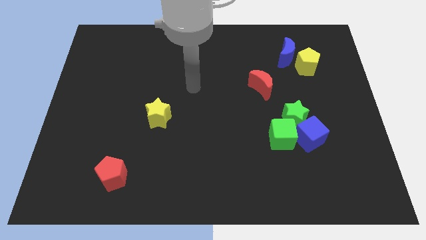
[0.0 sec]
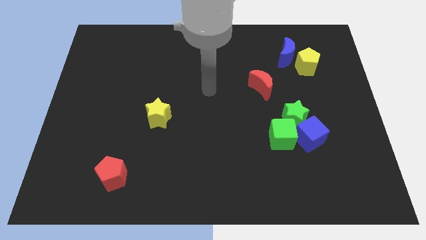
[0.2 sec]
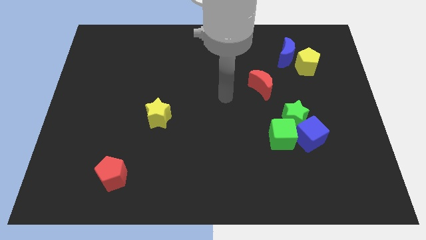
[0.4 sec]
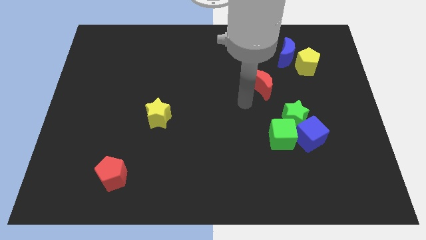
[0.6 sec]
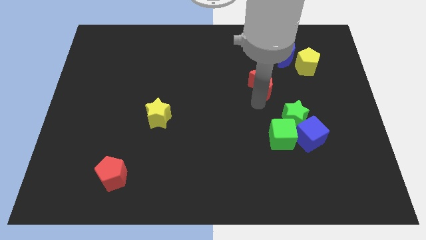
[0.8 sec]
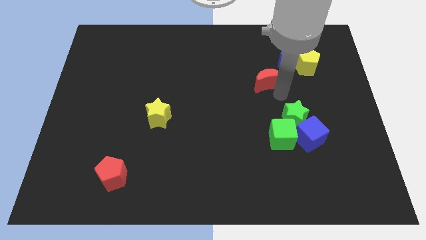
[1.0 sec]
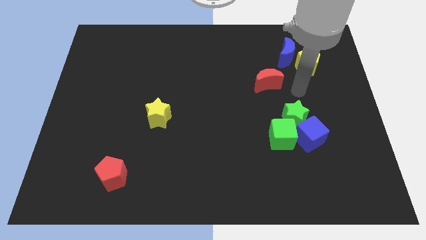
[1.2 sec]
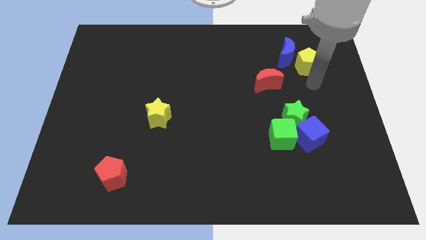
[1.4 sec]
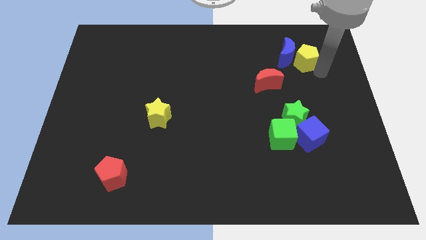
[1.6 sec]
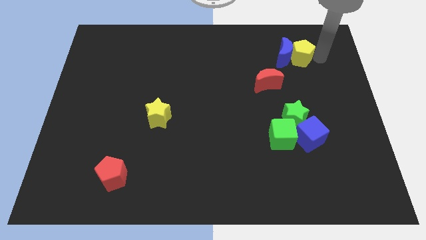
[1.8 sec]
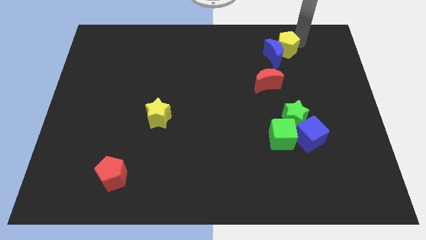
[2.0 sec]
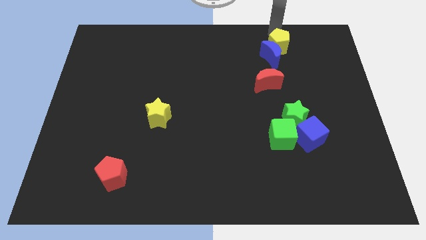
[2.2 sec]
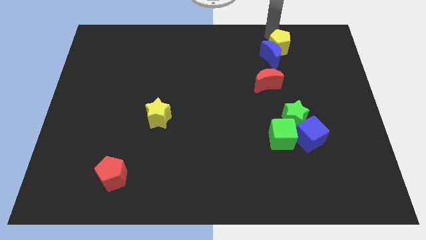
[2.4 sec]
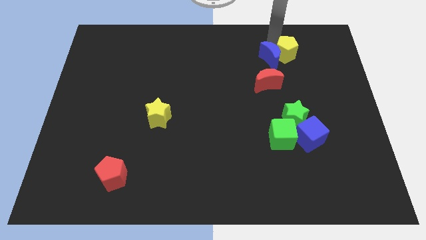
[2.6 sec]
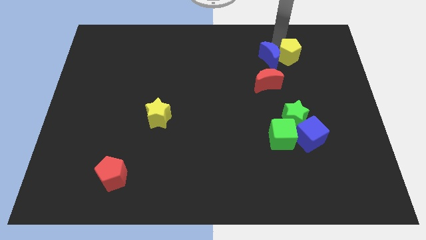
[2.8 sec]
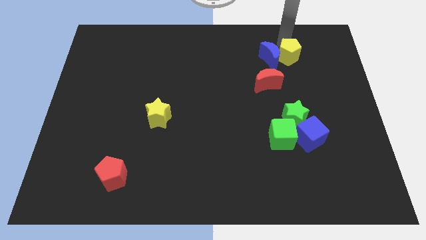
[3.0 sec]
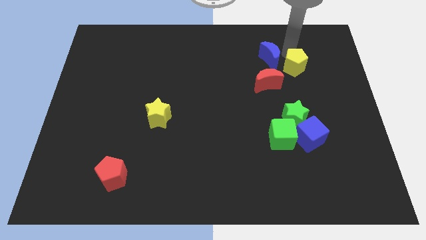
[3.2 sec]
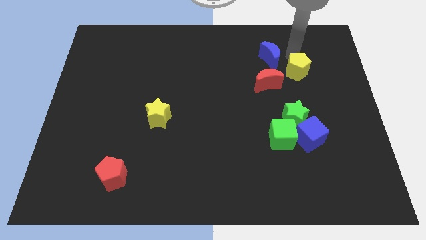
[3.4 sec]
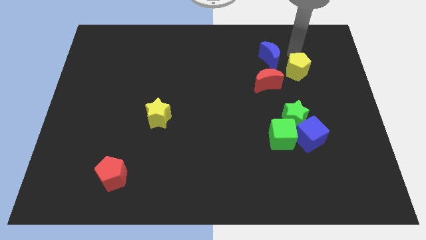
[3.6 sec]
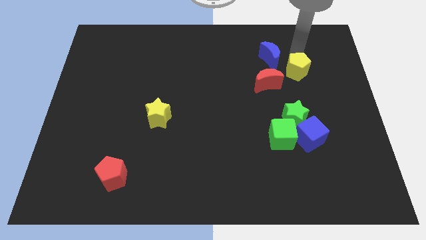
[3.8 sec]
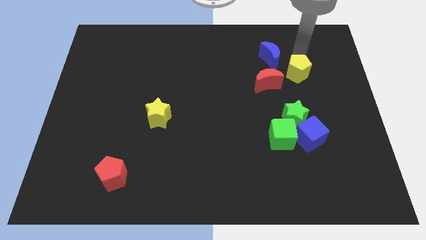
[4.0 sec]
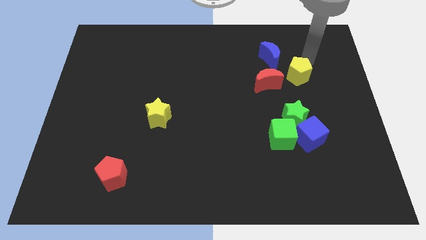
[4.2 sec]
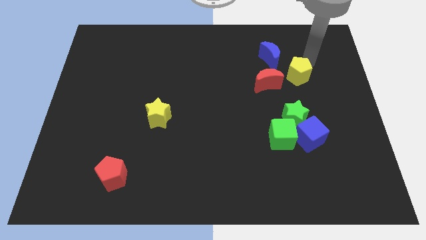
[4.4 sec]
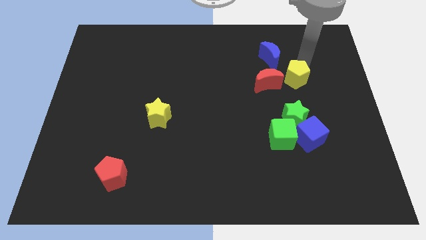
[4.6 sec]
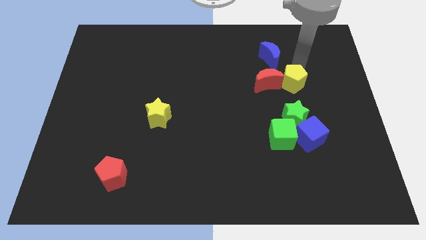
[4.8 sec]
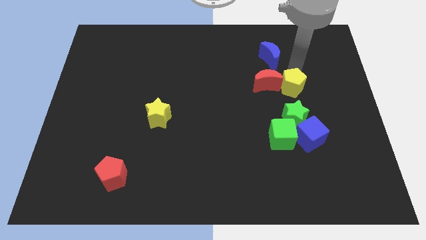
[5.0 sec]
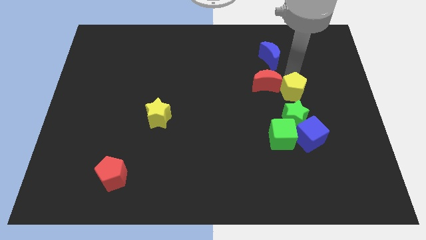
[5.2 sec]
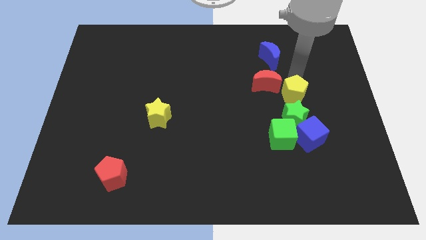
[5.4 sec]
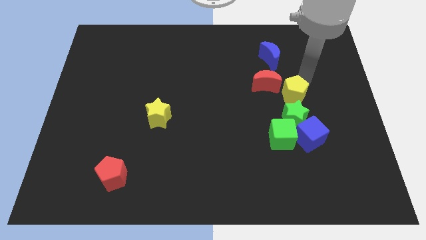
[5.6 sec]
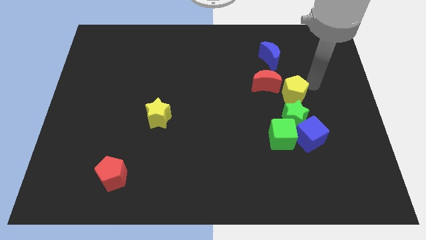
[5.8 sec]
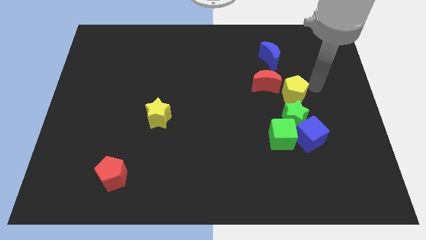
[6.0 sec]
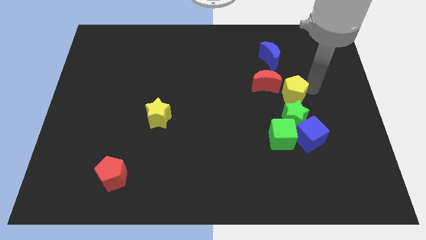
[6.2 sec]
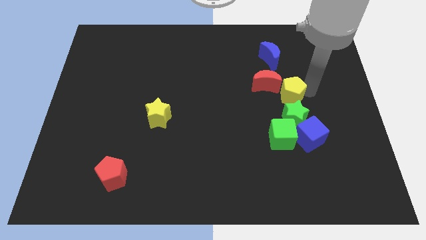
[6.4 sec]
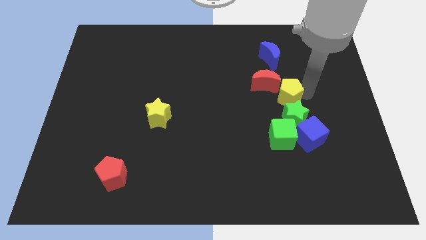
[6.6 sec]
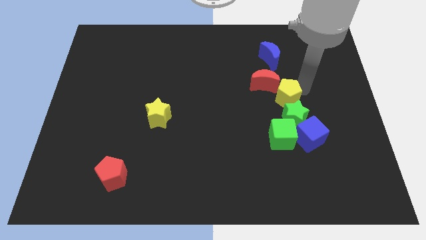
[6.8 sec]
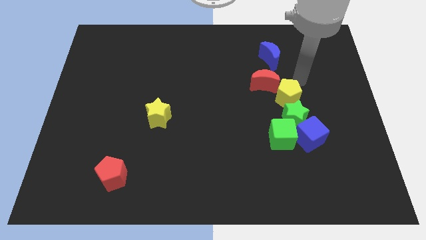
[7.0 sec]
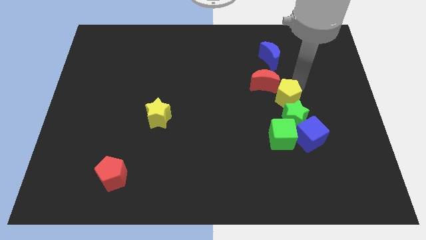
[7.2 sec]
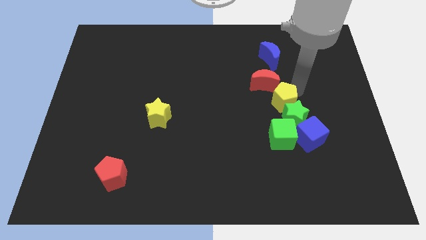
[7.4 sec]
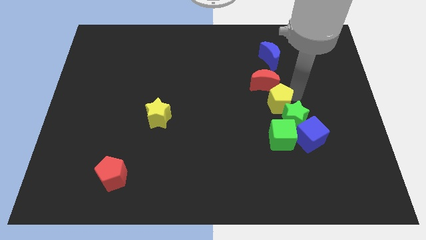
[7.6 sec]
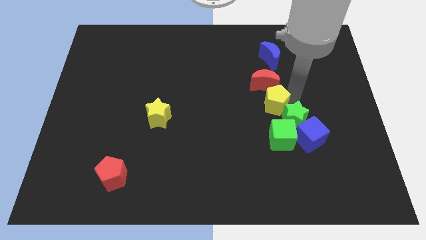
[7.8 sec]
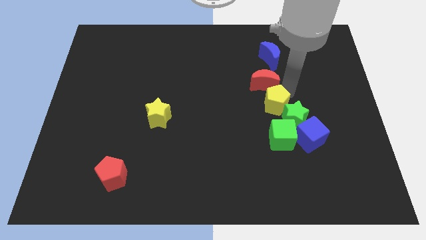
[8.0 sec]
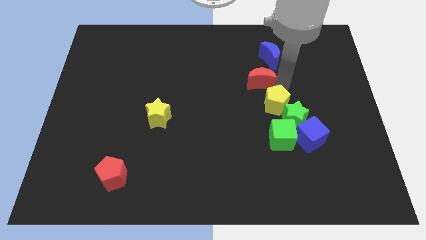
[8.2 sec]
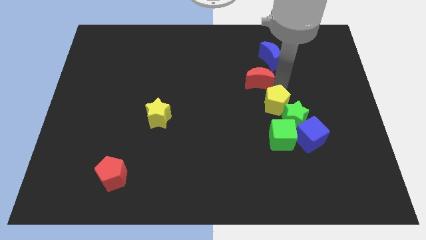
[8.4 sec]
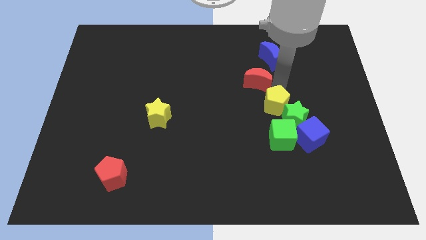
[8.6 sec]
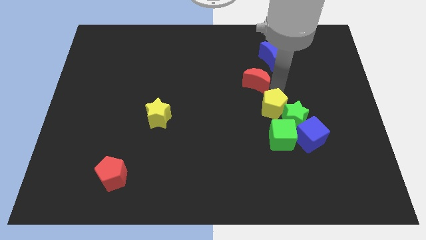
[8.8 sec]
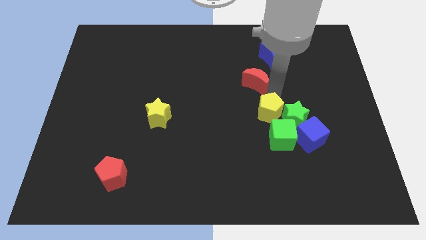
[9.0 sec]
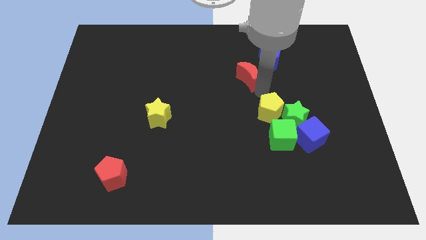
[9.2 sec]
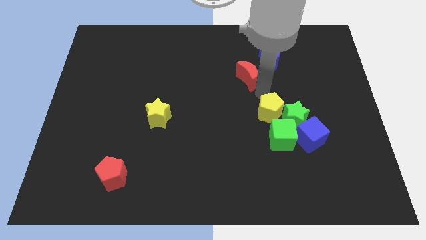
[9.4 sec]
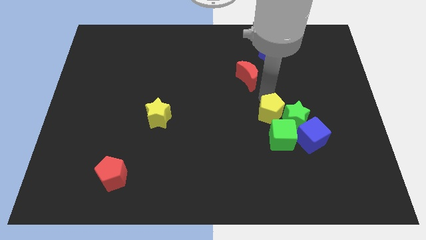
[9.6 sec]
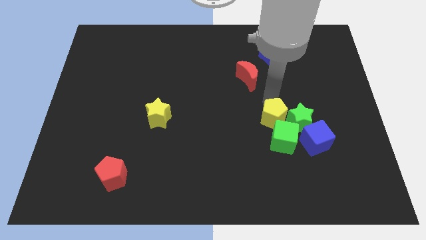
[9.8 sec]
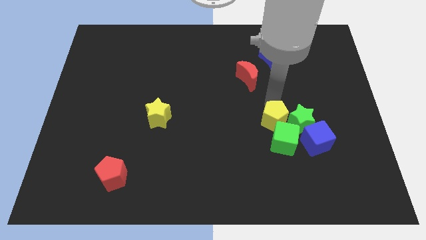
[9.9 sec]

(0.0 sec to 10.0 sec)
move the yellow pentagon close to the green cube

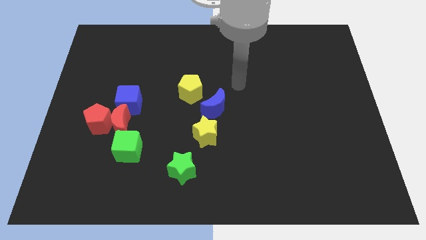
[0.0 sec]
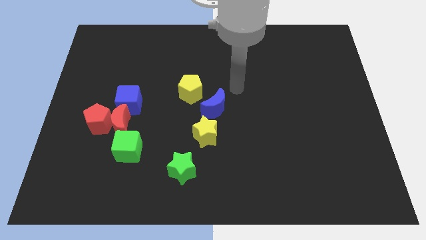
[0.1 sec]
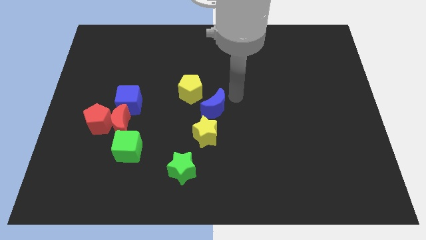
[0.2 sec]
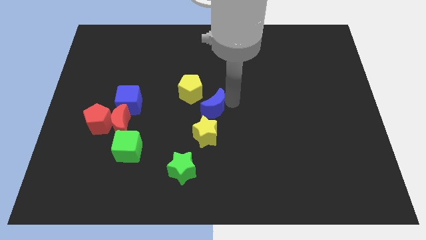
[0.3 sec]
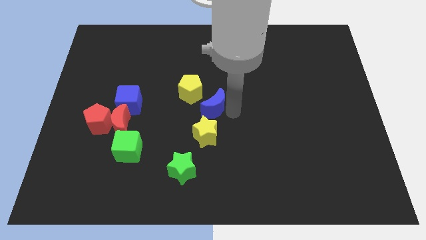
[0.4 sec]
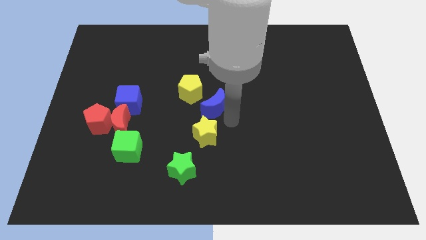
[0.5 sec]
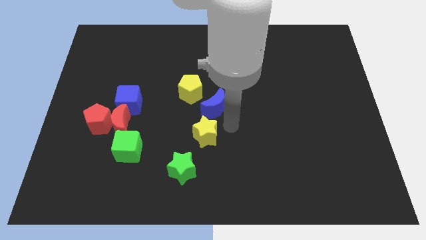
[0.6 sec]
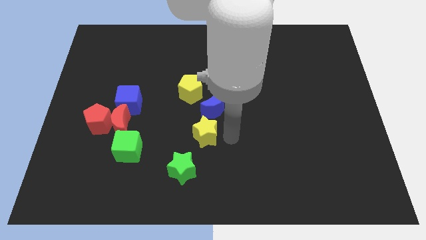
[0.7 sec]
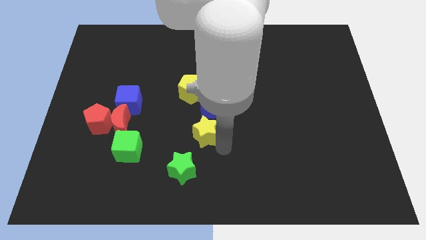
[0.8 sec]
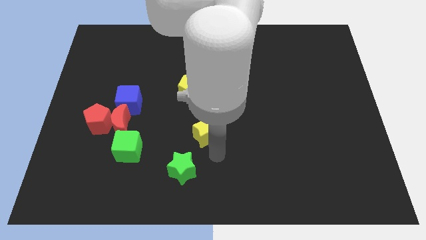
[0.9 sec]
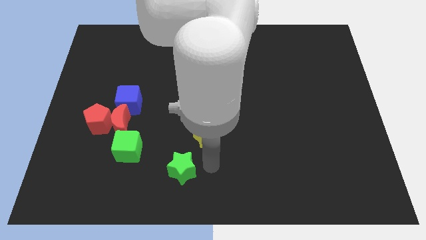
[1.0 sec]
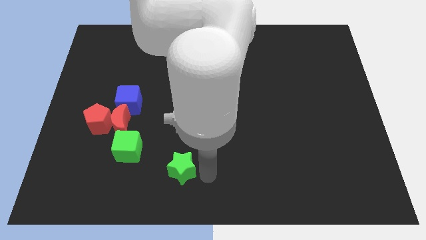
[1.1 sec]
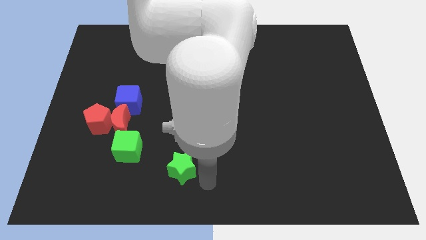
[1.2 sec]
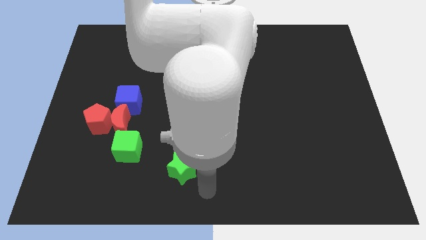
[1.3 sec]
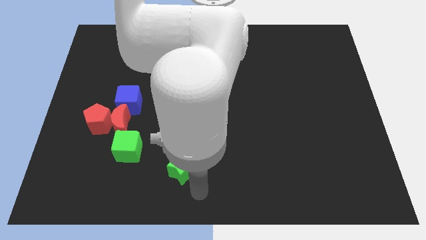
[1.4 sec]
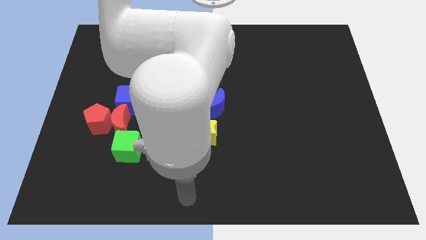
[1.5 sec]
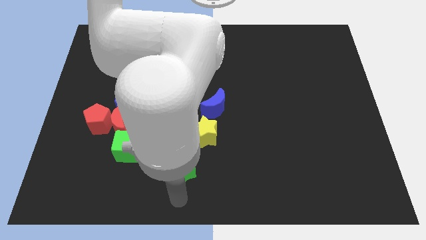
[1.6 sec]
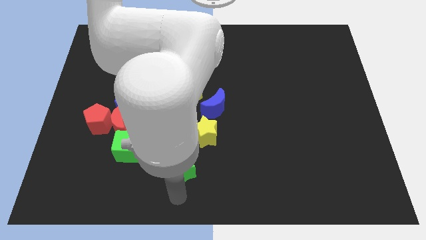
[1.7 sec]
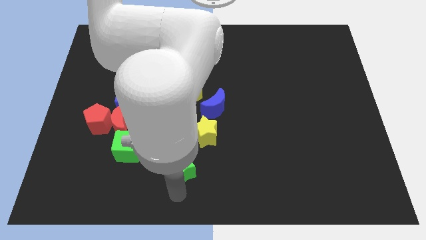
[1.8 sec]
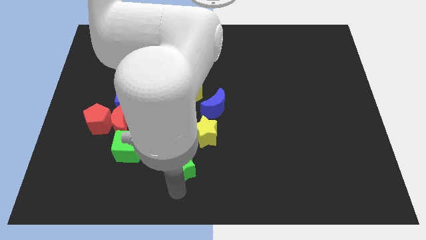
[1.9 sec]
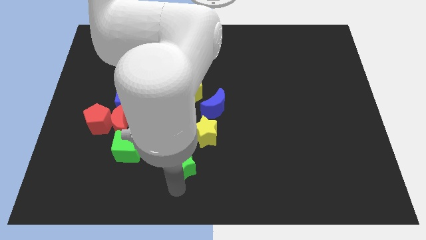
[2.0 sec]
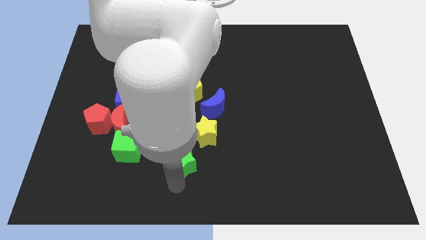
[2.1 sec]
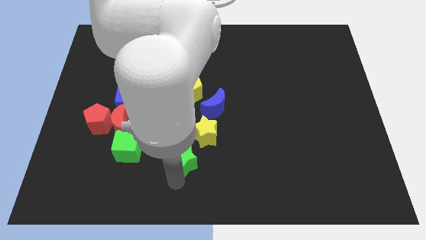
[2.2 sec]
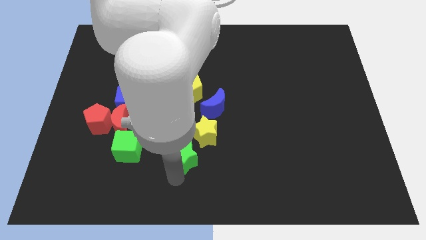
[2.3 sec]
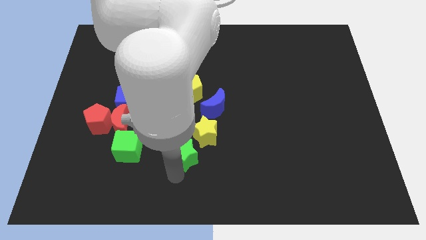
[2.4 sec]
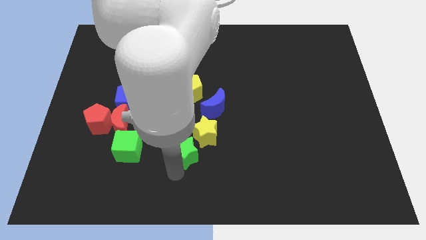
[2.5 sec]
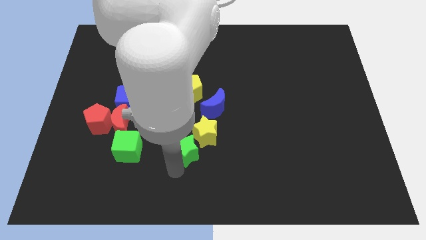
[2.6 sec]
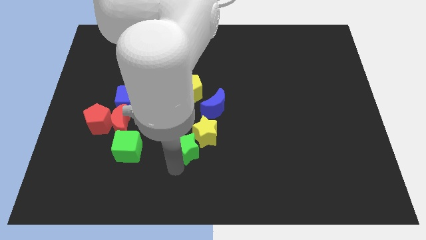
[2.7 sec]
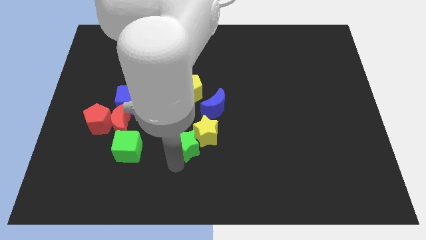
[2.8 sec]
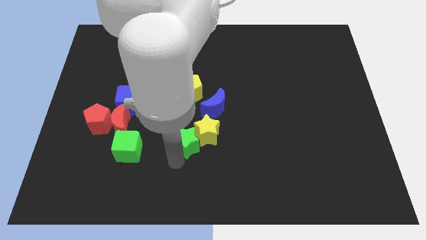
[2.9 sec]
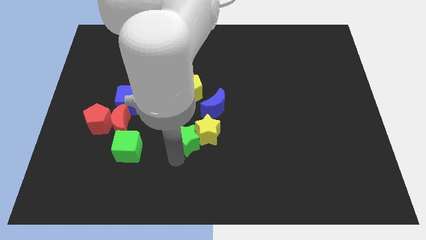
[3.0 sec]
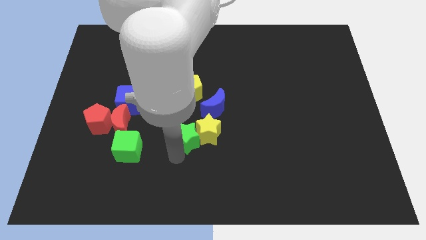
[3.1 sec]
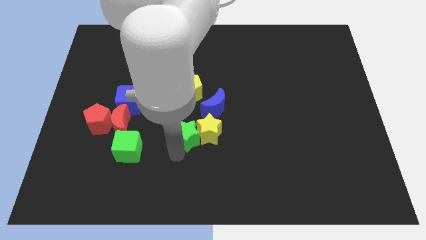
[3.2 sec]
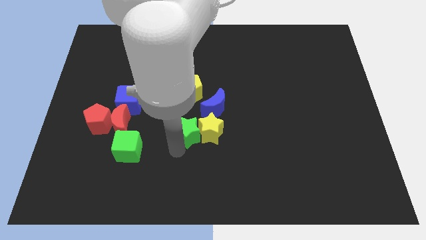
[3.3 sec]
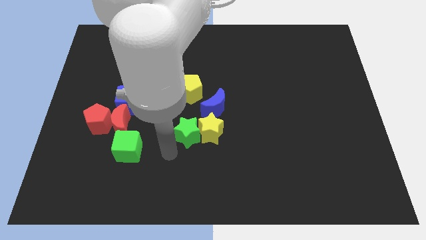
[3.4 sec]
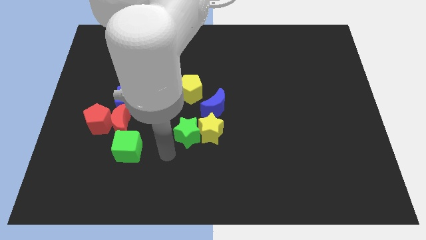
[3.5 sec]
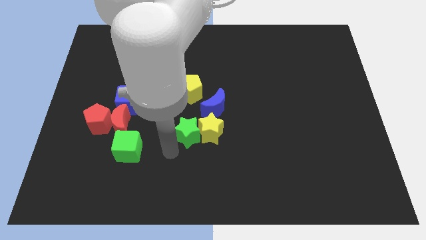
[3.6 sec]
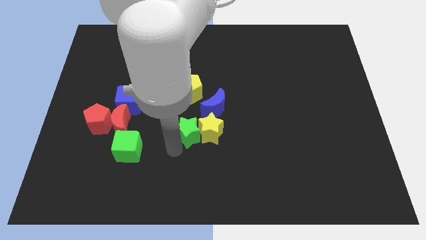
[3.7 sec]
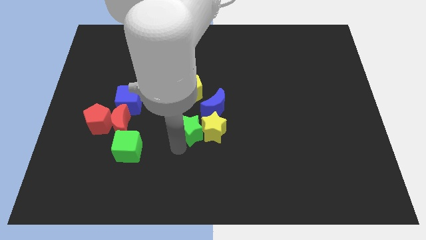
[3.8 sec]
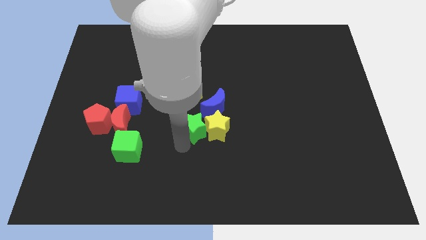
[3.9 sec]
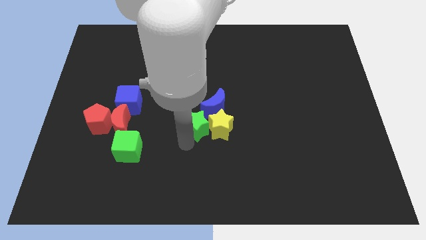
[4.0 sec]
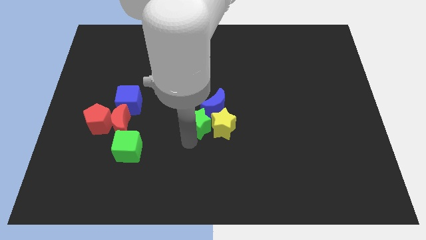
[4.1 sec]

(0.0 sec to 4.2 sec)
move the green star next to the blue moon
